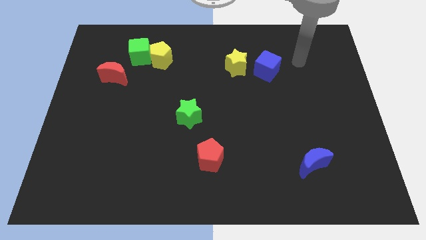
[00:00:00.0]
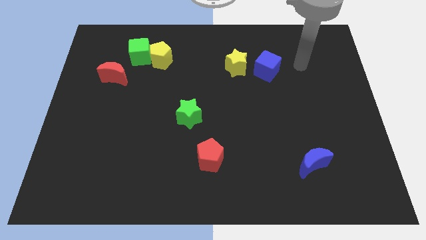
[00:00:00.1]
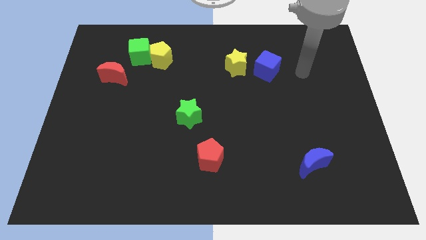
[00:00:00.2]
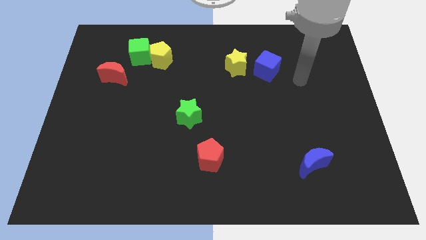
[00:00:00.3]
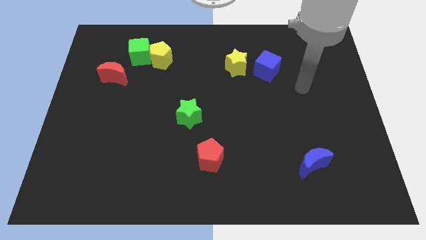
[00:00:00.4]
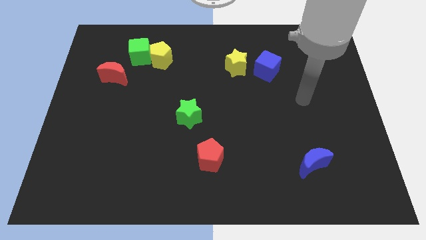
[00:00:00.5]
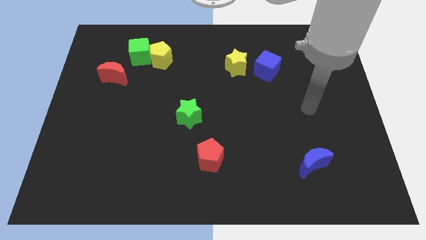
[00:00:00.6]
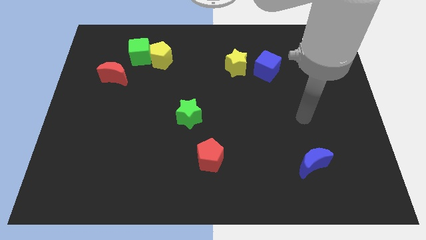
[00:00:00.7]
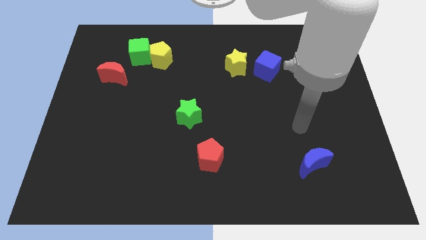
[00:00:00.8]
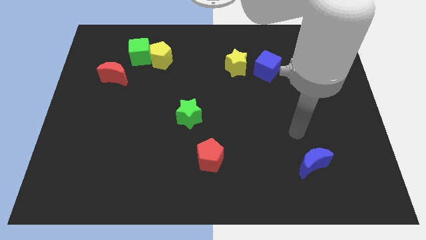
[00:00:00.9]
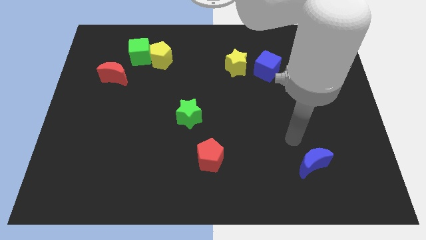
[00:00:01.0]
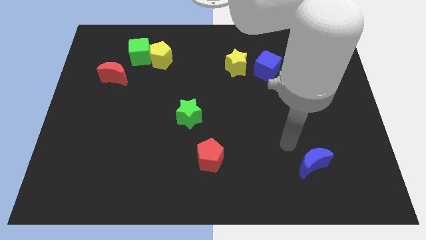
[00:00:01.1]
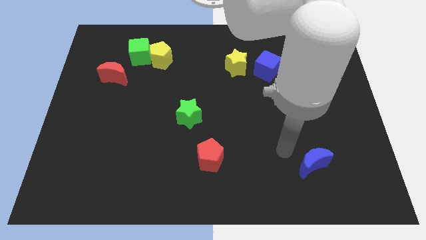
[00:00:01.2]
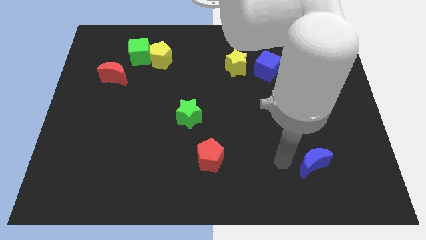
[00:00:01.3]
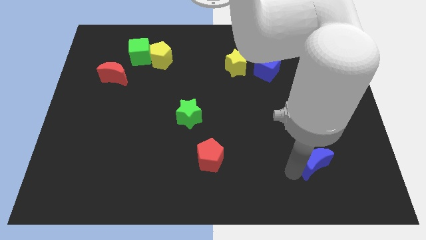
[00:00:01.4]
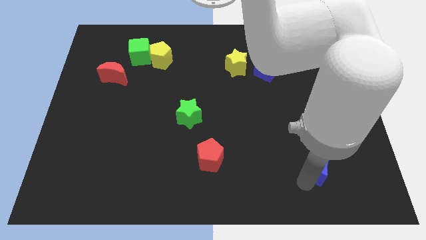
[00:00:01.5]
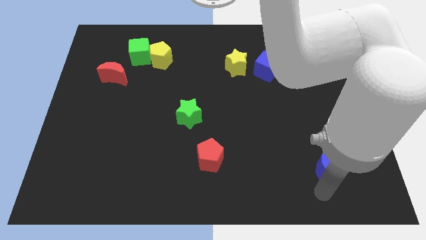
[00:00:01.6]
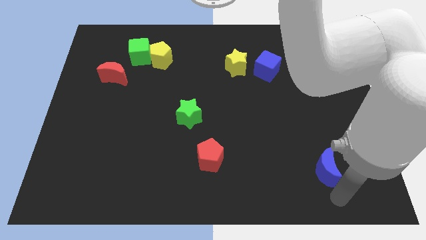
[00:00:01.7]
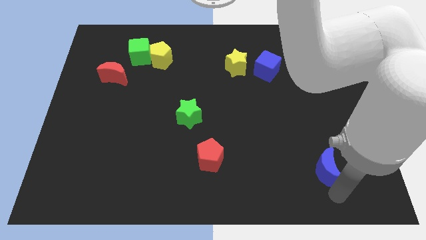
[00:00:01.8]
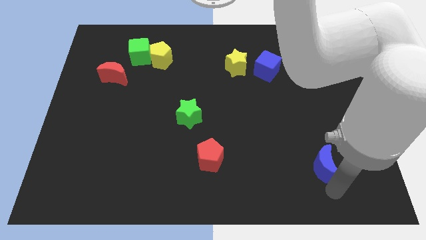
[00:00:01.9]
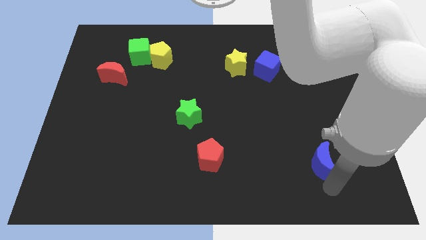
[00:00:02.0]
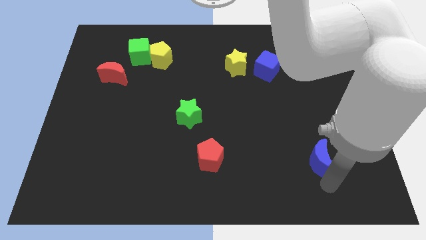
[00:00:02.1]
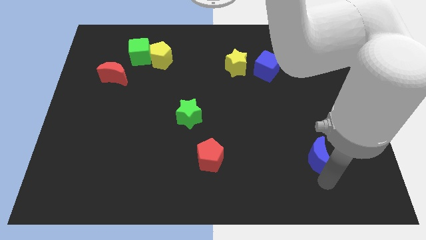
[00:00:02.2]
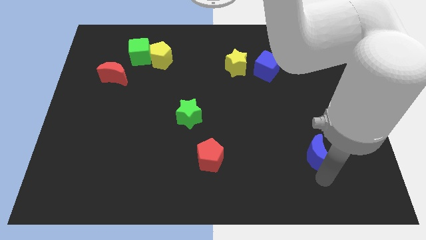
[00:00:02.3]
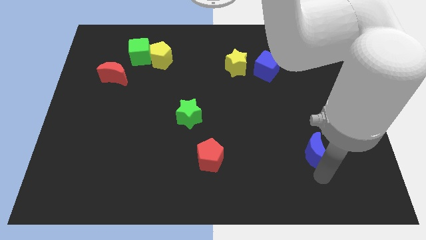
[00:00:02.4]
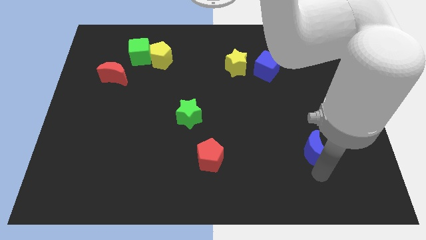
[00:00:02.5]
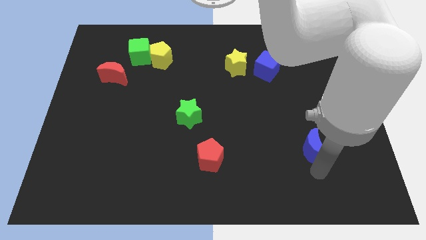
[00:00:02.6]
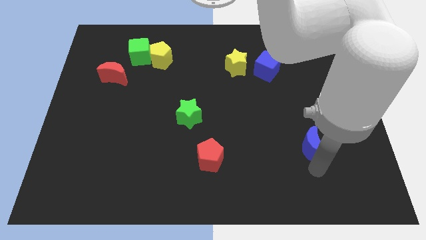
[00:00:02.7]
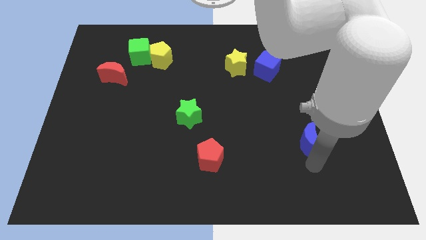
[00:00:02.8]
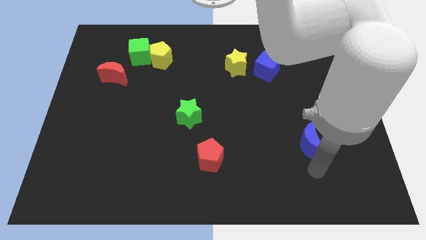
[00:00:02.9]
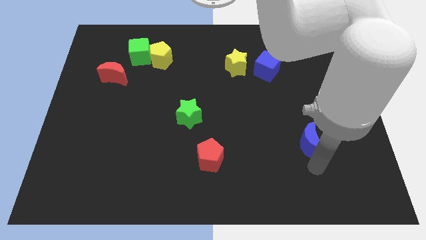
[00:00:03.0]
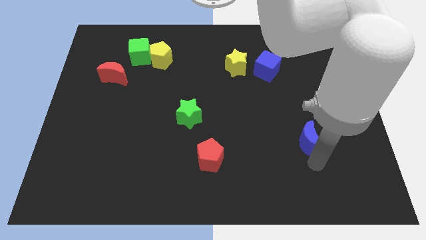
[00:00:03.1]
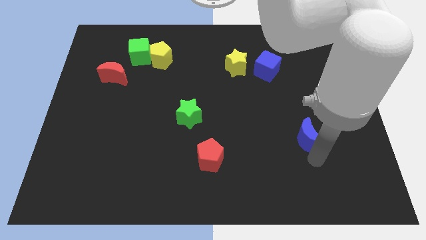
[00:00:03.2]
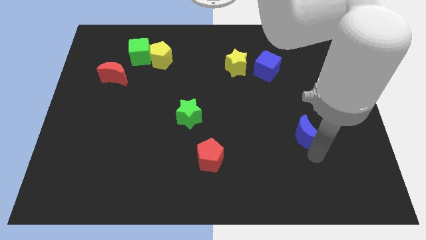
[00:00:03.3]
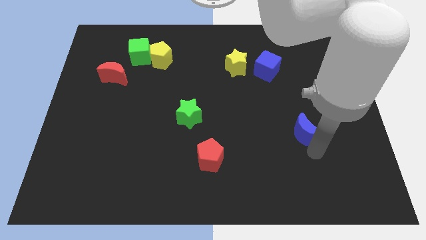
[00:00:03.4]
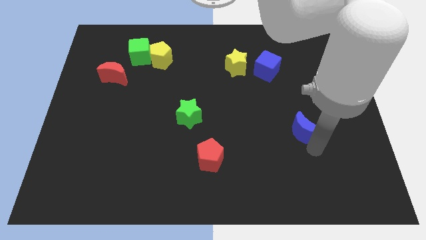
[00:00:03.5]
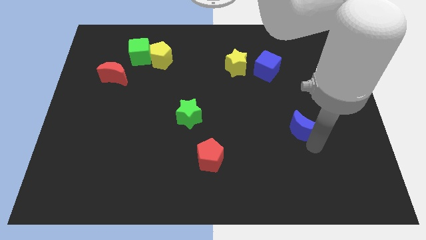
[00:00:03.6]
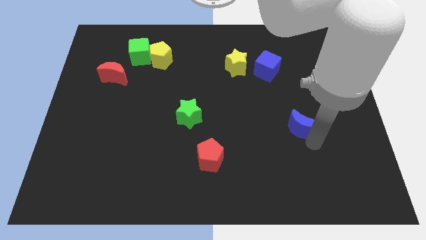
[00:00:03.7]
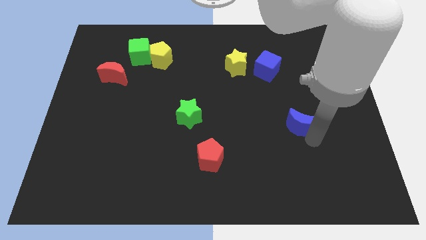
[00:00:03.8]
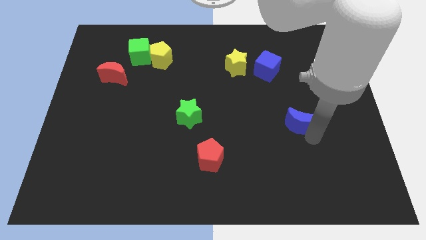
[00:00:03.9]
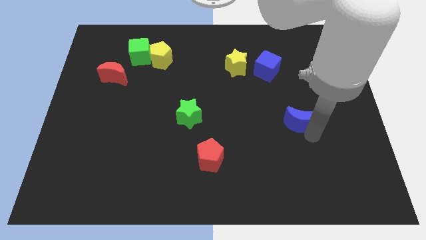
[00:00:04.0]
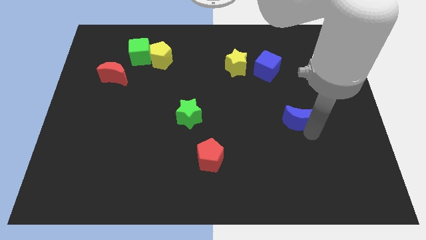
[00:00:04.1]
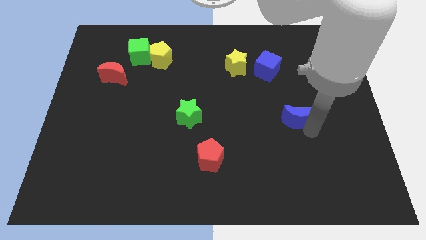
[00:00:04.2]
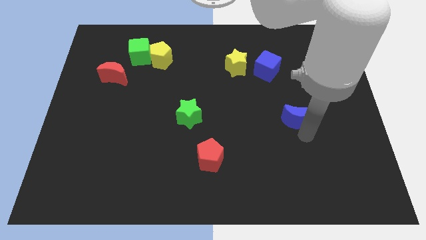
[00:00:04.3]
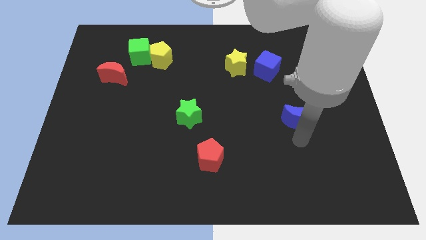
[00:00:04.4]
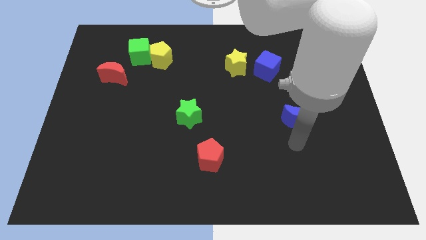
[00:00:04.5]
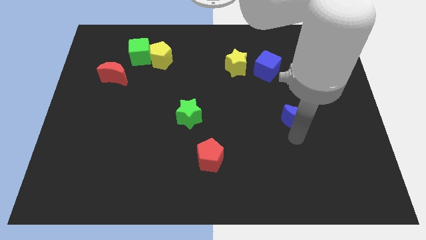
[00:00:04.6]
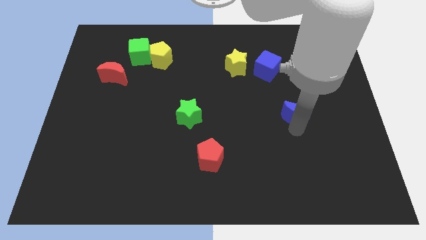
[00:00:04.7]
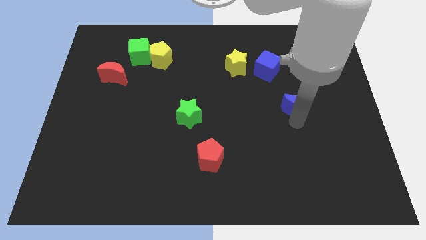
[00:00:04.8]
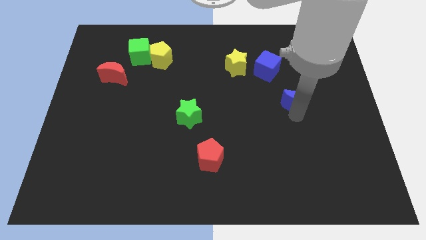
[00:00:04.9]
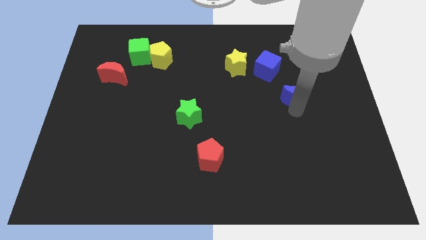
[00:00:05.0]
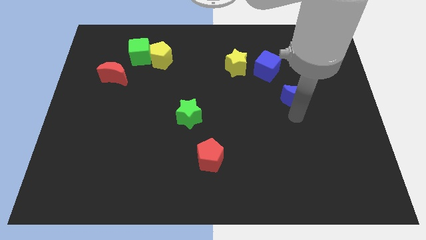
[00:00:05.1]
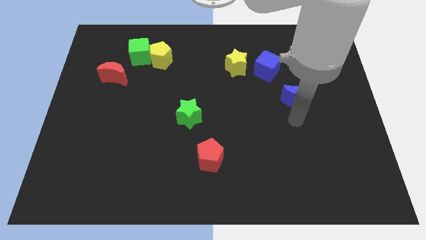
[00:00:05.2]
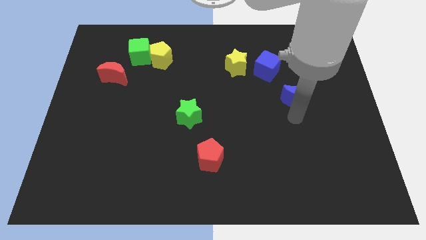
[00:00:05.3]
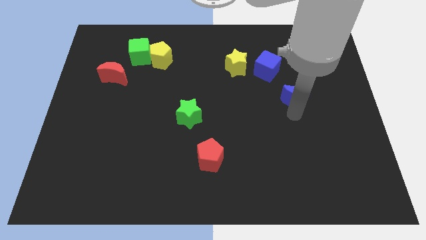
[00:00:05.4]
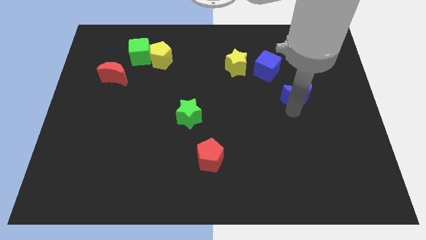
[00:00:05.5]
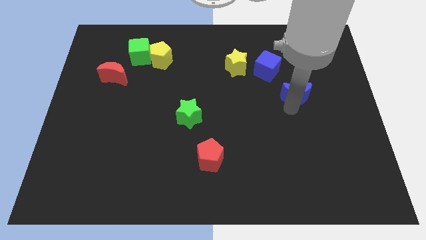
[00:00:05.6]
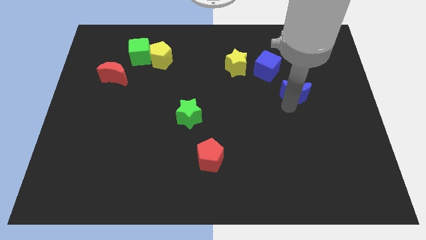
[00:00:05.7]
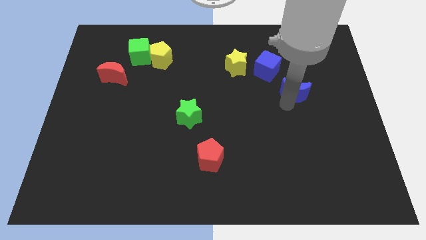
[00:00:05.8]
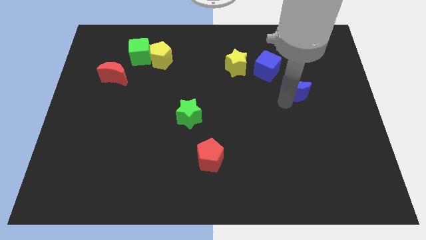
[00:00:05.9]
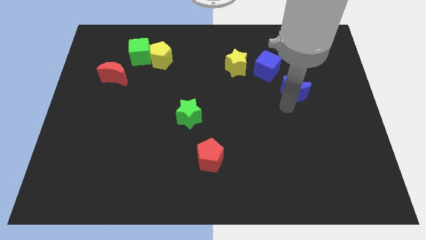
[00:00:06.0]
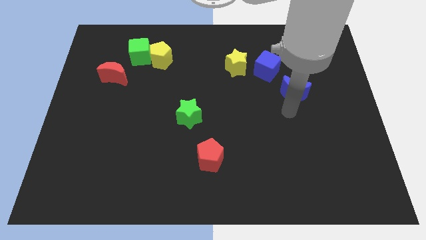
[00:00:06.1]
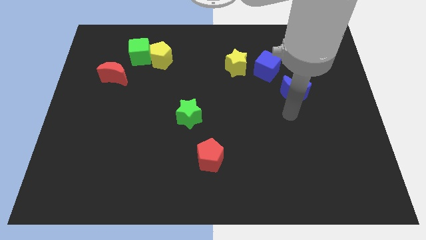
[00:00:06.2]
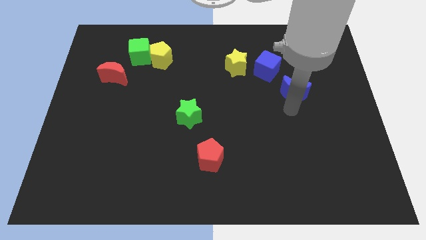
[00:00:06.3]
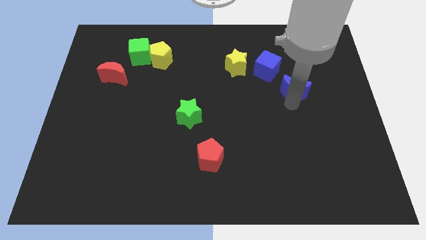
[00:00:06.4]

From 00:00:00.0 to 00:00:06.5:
push the blue moon upwards

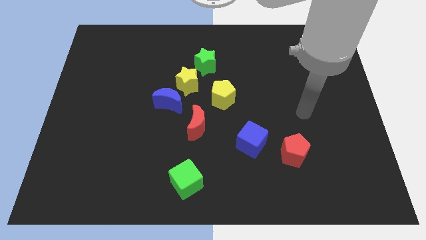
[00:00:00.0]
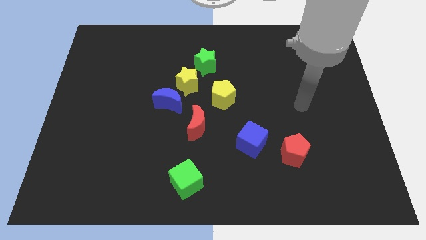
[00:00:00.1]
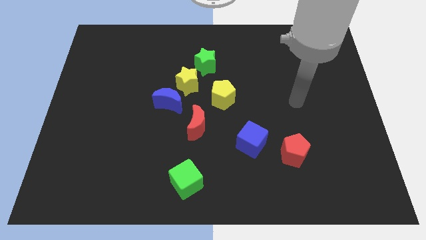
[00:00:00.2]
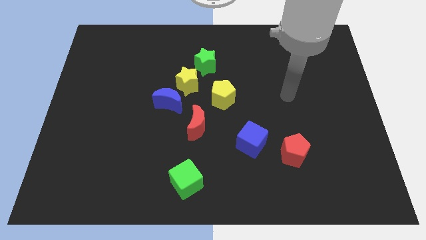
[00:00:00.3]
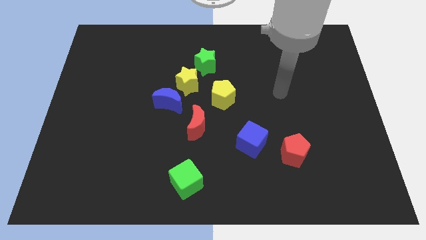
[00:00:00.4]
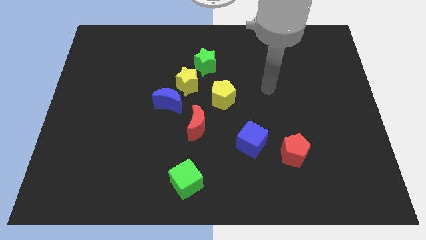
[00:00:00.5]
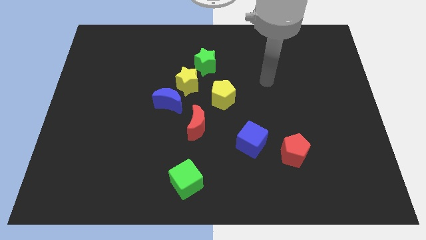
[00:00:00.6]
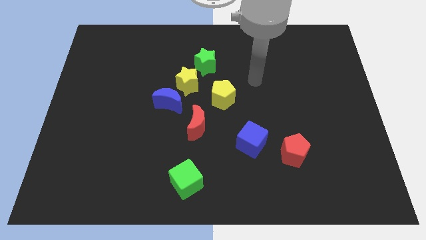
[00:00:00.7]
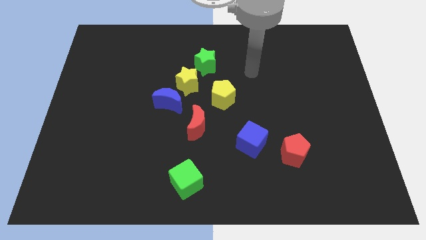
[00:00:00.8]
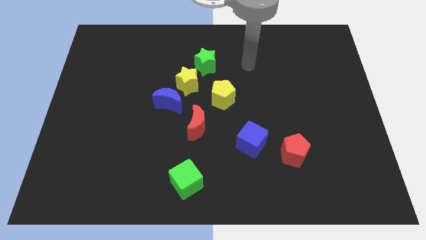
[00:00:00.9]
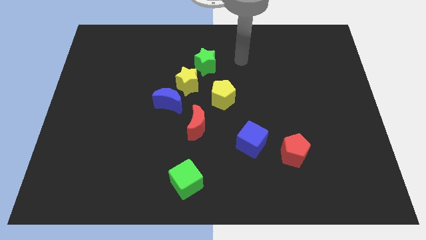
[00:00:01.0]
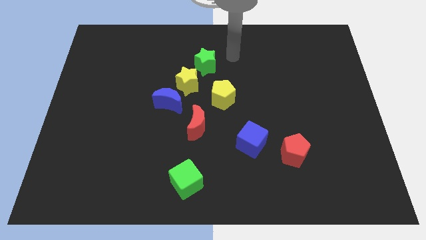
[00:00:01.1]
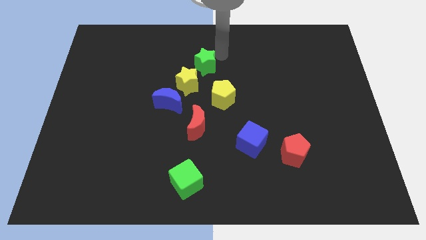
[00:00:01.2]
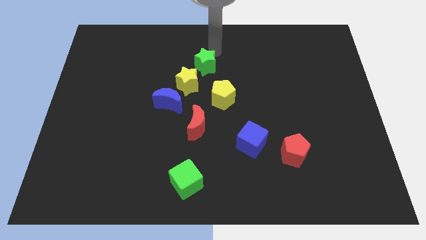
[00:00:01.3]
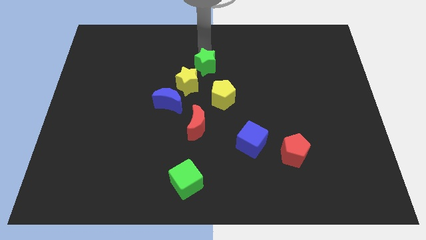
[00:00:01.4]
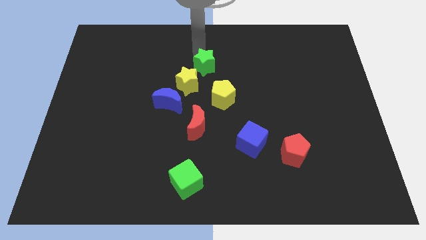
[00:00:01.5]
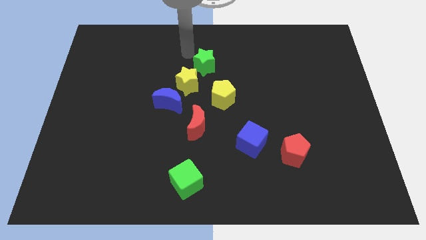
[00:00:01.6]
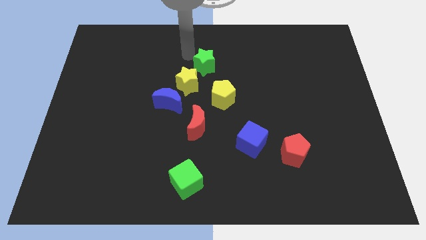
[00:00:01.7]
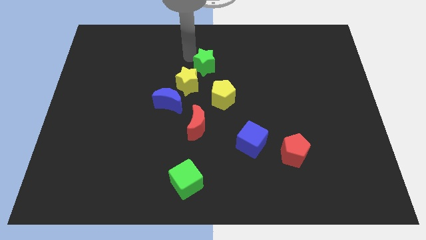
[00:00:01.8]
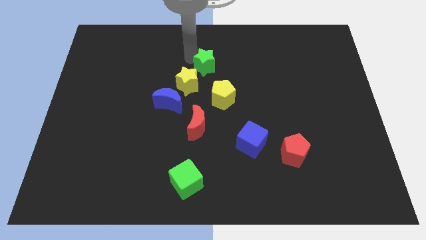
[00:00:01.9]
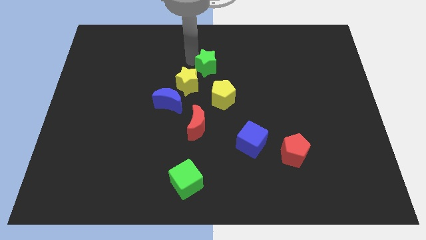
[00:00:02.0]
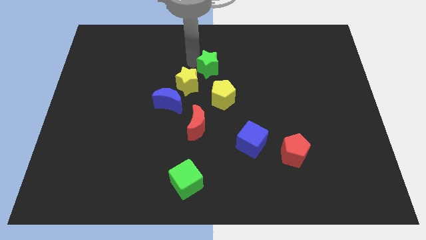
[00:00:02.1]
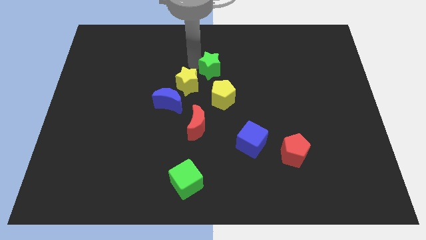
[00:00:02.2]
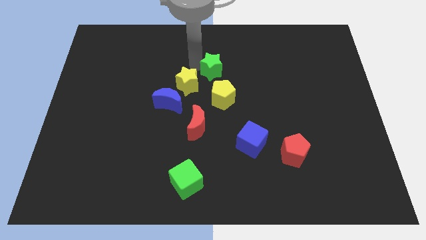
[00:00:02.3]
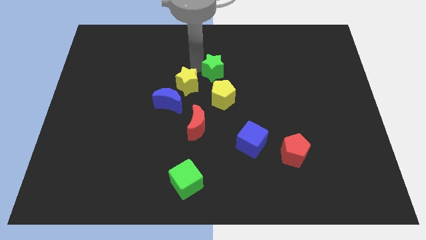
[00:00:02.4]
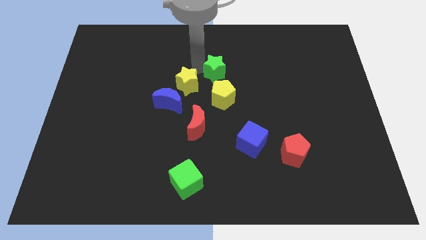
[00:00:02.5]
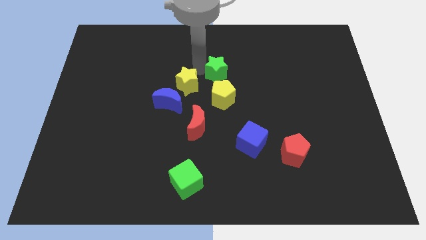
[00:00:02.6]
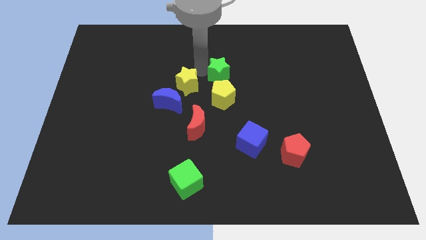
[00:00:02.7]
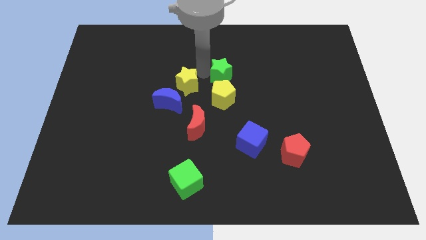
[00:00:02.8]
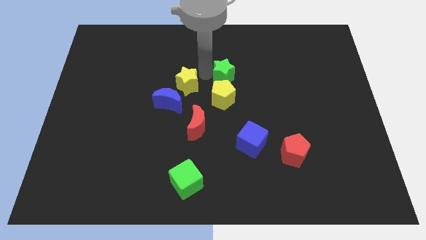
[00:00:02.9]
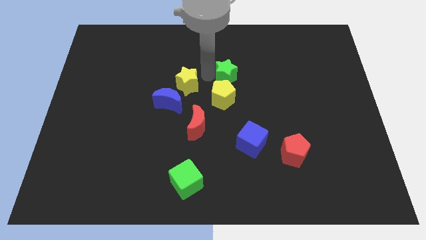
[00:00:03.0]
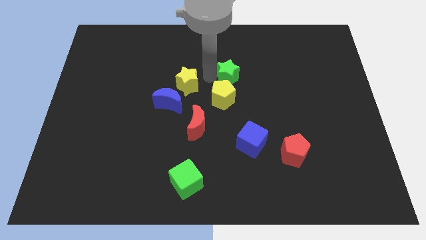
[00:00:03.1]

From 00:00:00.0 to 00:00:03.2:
slide the green star downwards and to the right diagonally slightly
